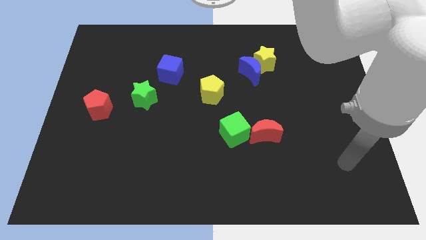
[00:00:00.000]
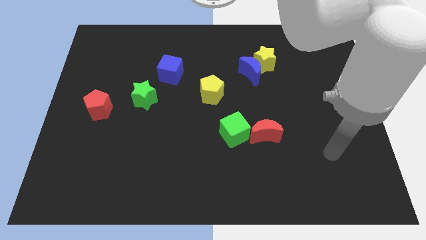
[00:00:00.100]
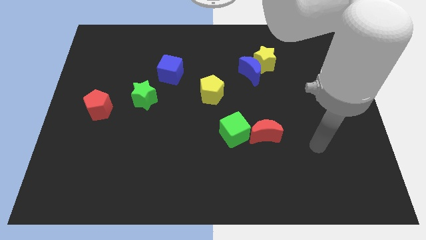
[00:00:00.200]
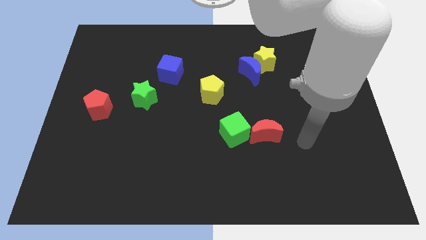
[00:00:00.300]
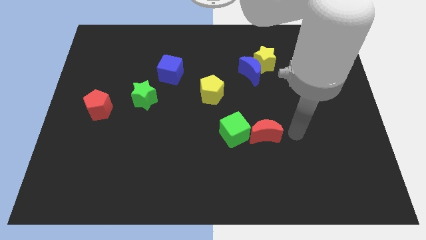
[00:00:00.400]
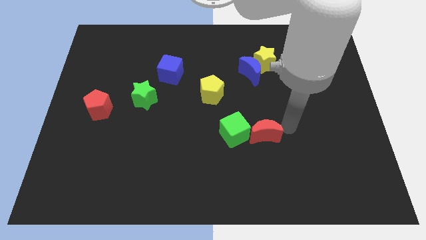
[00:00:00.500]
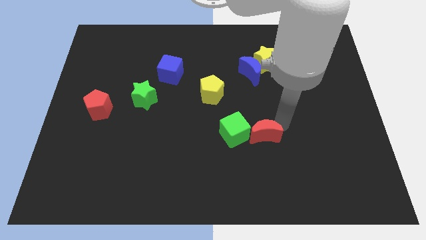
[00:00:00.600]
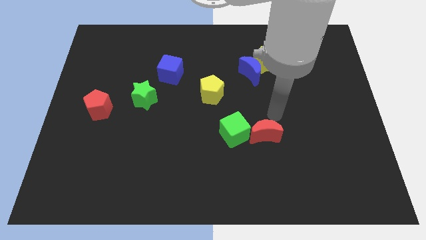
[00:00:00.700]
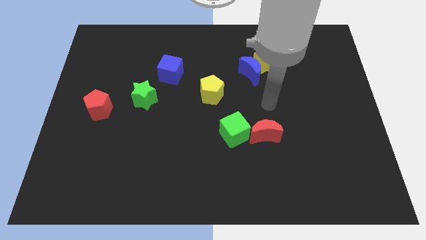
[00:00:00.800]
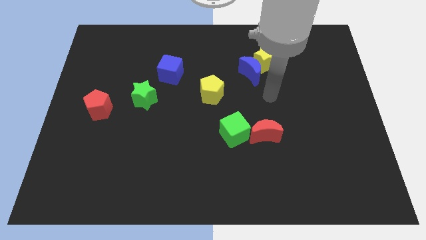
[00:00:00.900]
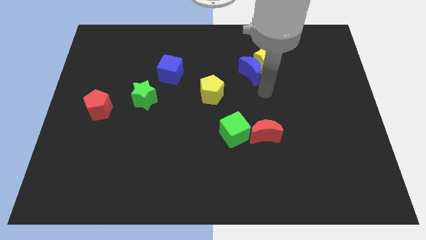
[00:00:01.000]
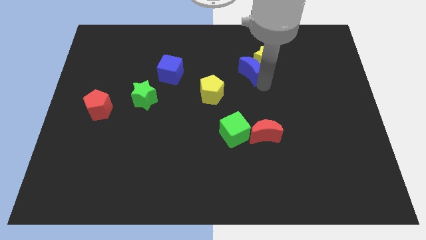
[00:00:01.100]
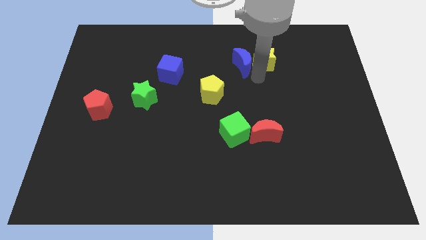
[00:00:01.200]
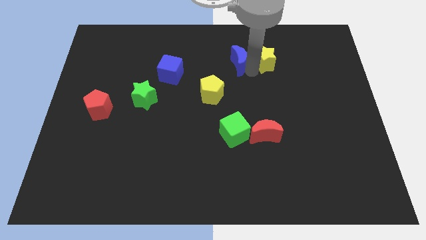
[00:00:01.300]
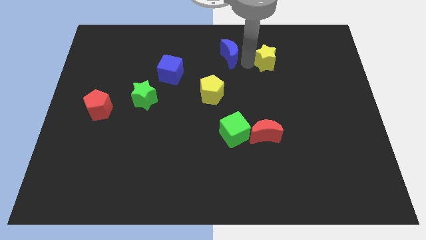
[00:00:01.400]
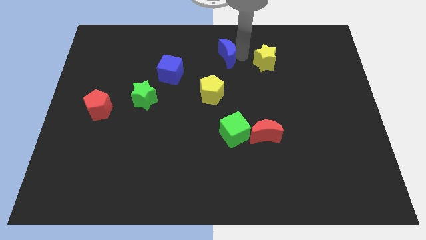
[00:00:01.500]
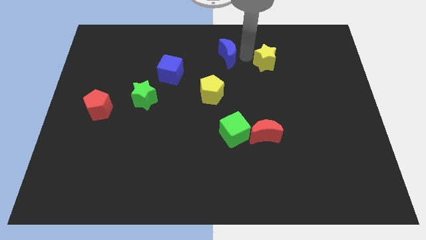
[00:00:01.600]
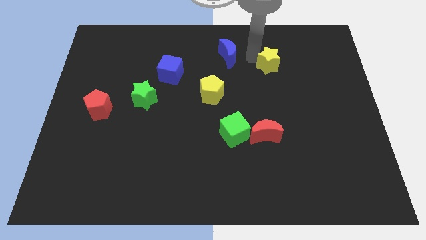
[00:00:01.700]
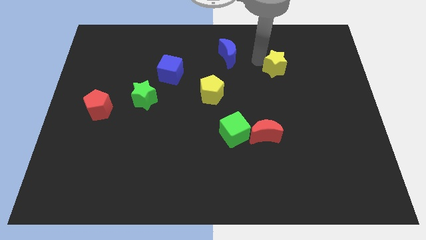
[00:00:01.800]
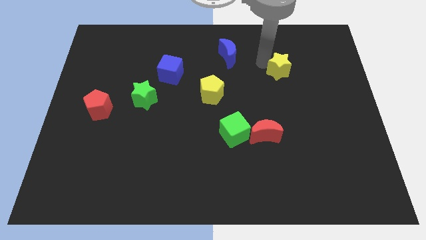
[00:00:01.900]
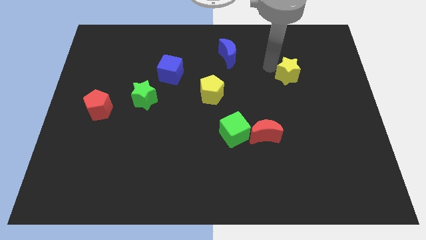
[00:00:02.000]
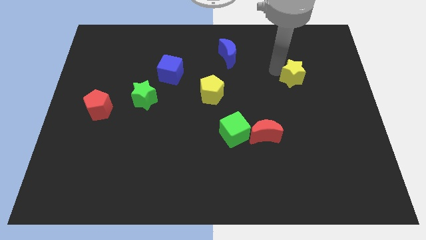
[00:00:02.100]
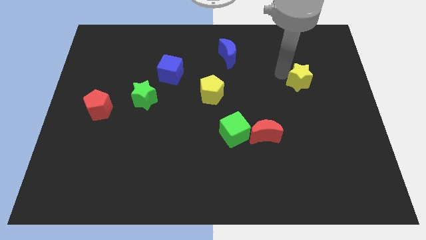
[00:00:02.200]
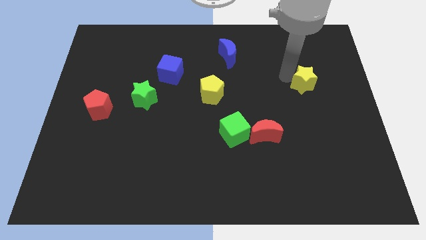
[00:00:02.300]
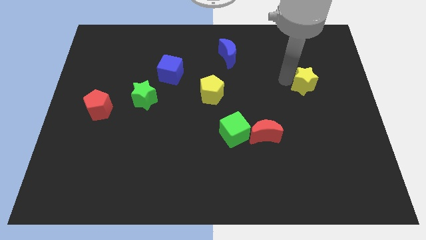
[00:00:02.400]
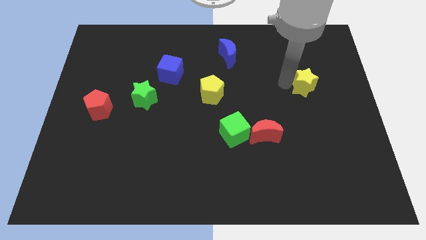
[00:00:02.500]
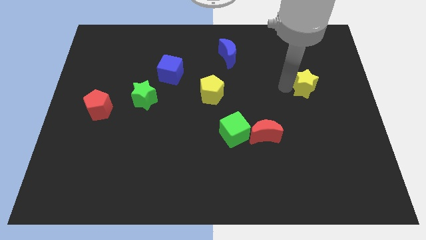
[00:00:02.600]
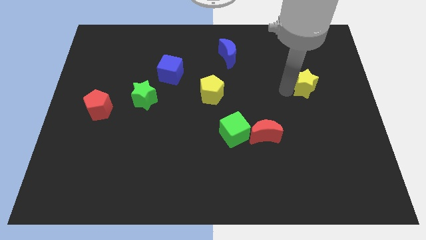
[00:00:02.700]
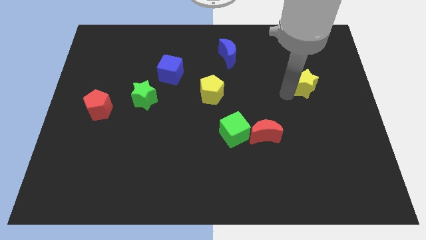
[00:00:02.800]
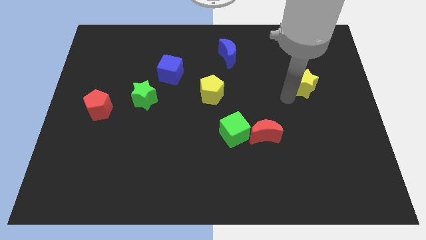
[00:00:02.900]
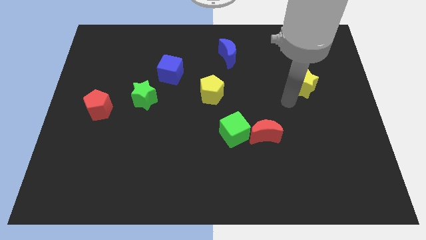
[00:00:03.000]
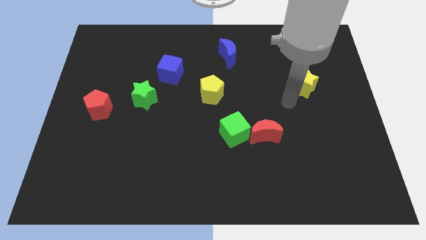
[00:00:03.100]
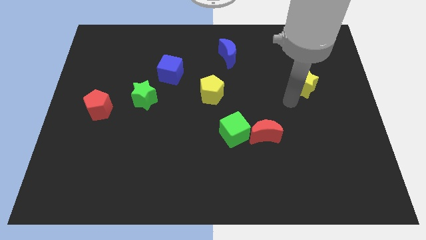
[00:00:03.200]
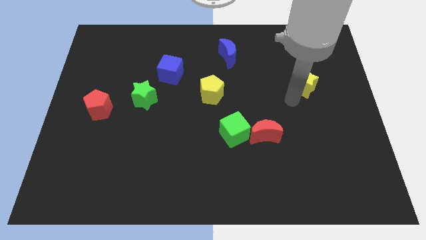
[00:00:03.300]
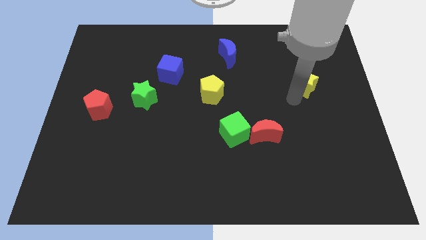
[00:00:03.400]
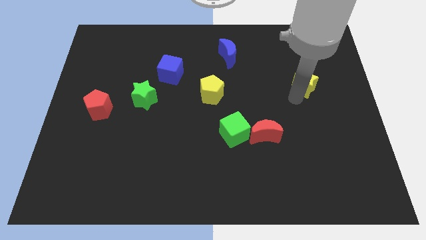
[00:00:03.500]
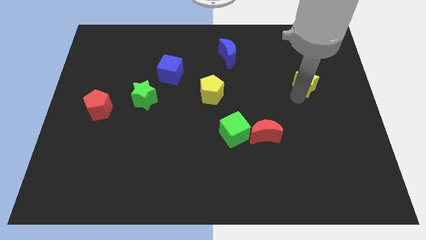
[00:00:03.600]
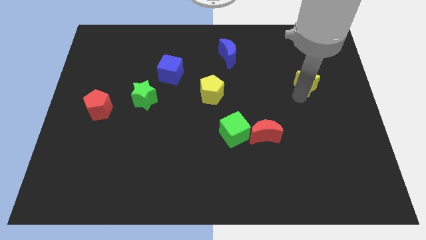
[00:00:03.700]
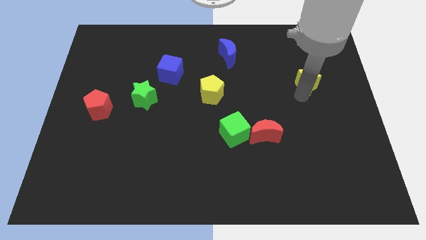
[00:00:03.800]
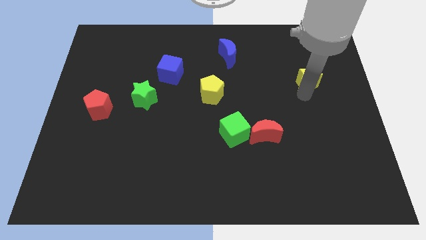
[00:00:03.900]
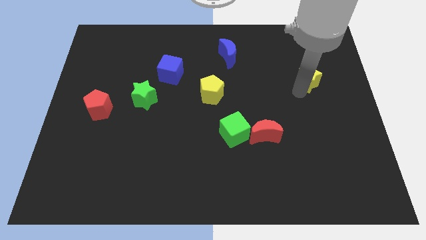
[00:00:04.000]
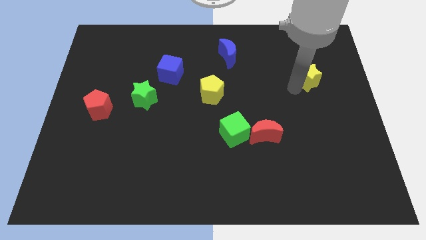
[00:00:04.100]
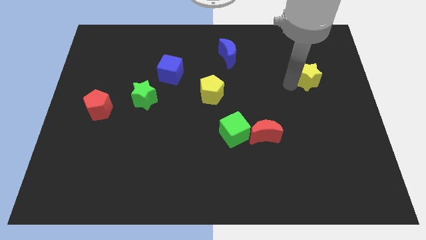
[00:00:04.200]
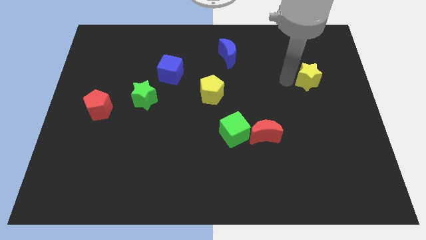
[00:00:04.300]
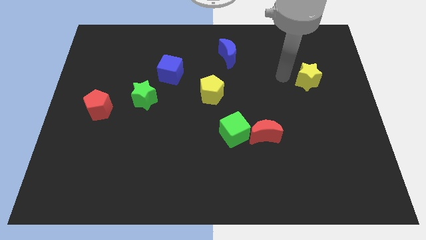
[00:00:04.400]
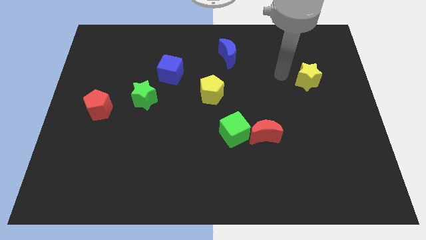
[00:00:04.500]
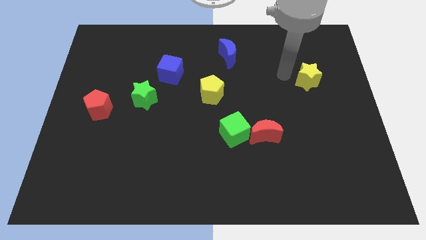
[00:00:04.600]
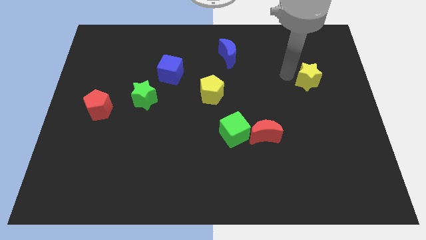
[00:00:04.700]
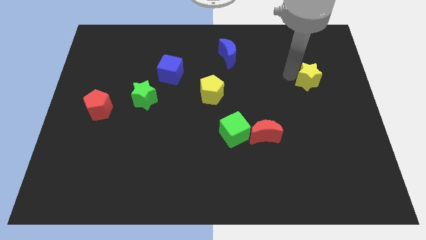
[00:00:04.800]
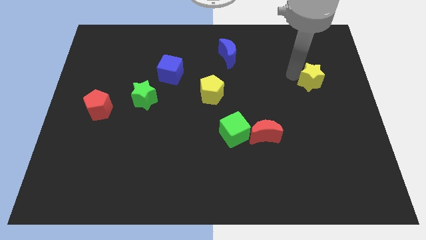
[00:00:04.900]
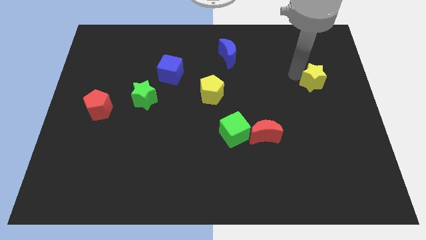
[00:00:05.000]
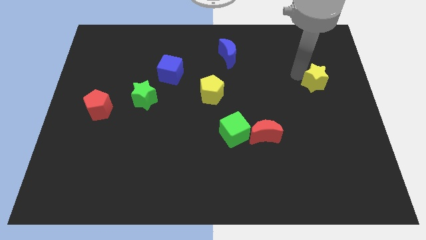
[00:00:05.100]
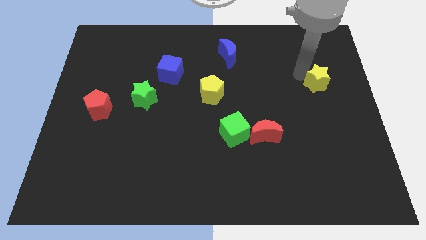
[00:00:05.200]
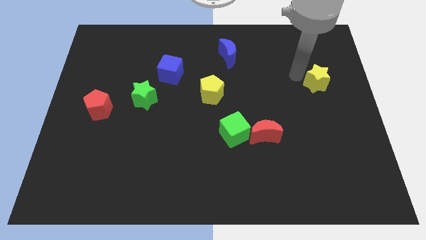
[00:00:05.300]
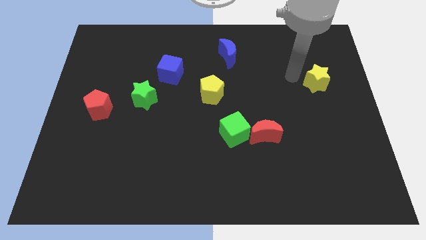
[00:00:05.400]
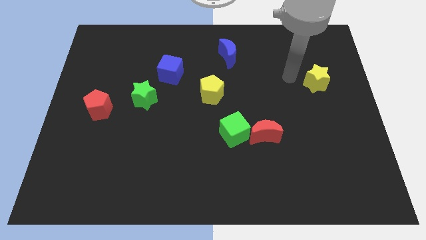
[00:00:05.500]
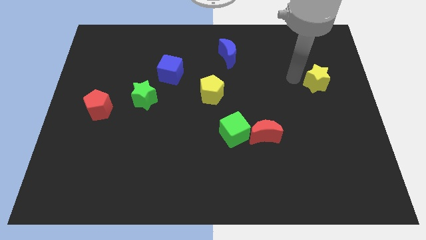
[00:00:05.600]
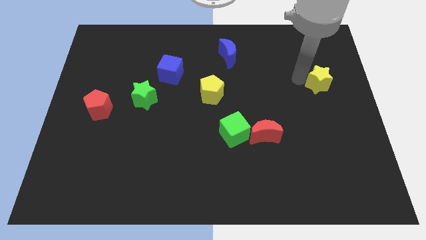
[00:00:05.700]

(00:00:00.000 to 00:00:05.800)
put the yellow star to the center right

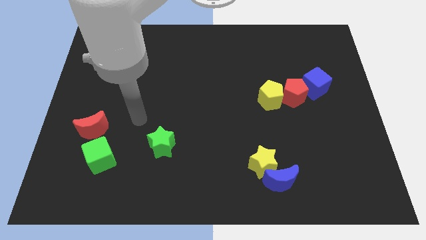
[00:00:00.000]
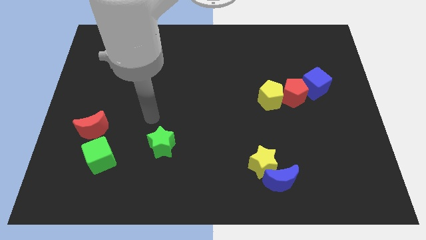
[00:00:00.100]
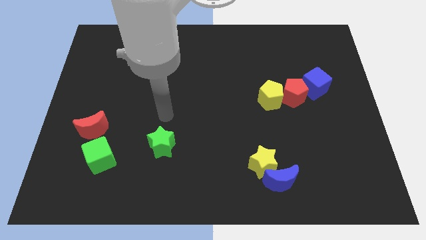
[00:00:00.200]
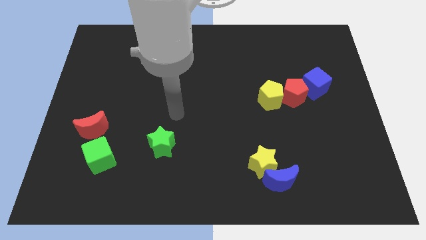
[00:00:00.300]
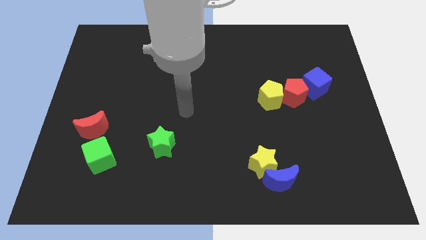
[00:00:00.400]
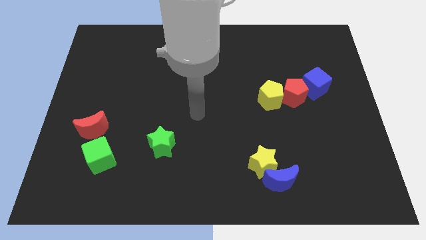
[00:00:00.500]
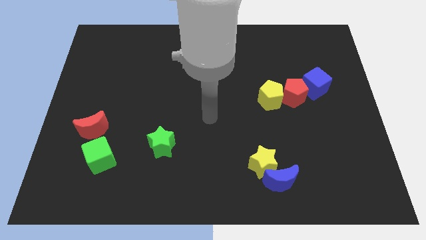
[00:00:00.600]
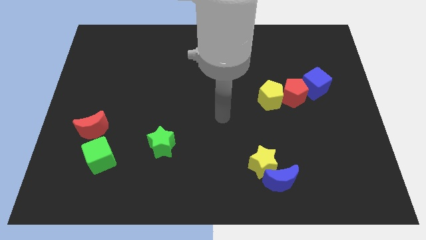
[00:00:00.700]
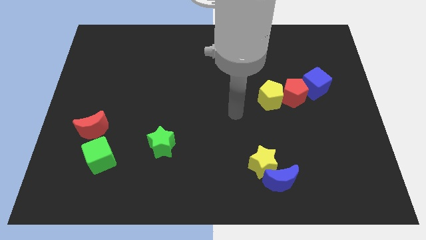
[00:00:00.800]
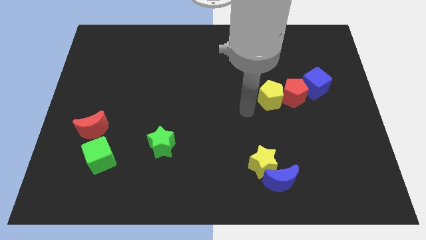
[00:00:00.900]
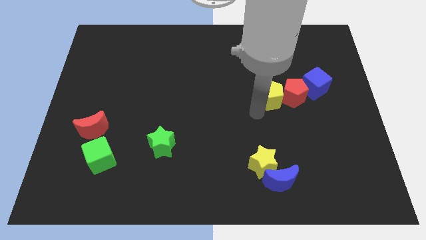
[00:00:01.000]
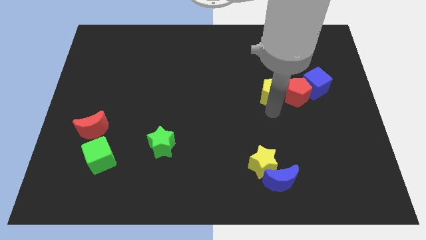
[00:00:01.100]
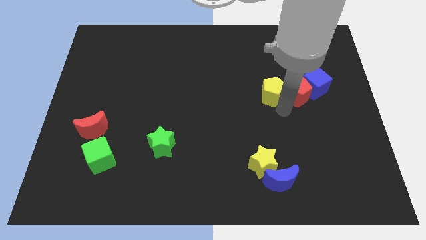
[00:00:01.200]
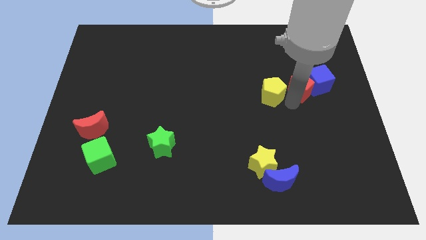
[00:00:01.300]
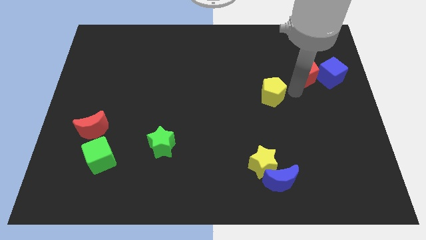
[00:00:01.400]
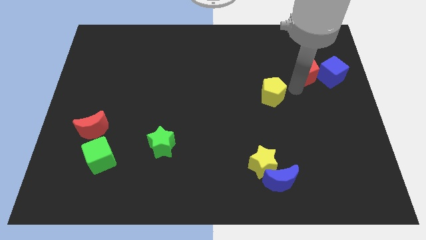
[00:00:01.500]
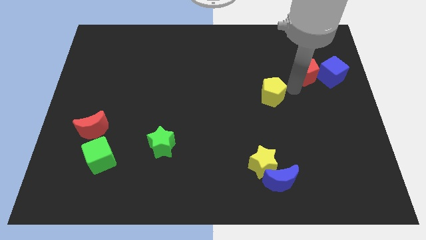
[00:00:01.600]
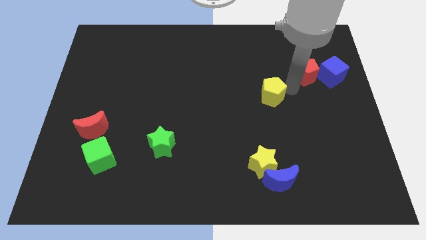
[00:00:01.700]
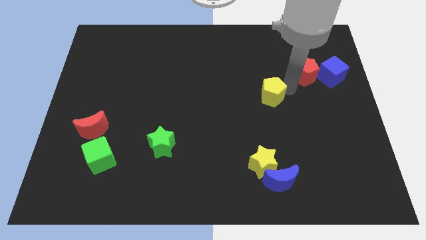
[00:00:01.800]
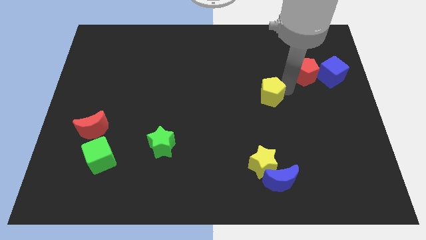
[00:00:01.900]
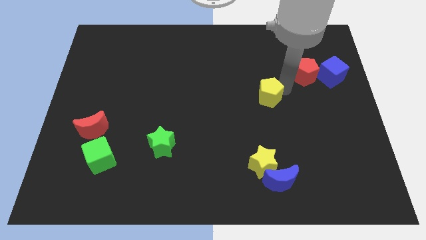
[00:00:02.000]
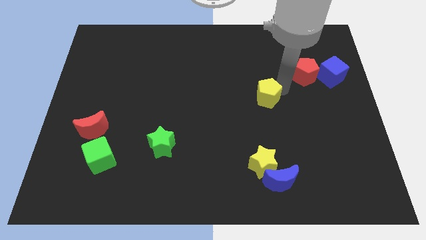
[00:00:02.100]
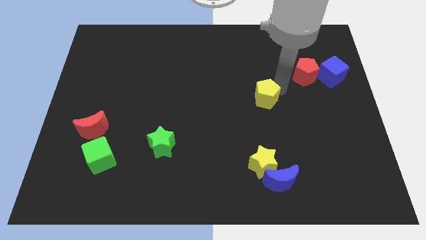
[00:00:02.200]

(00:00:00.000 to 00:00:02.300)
slide the yellow pentagon to the middle
